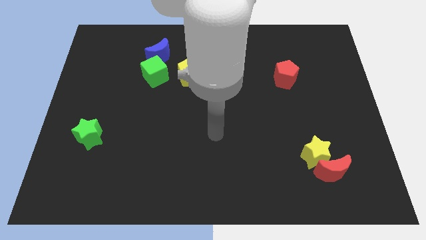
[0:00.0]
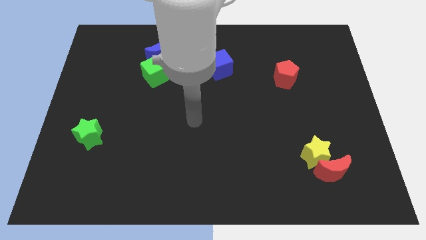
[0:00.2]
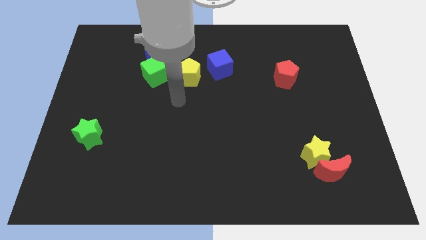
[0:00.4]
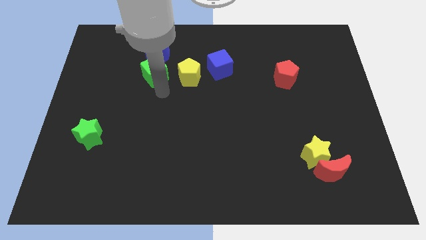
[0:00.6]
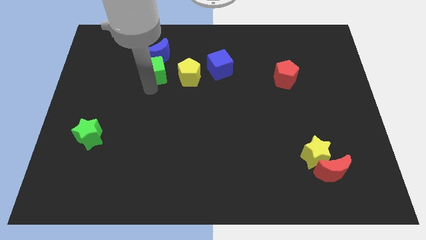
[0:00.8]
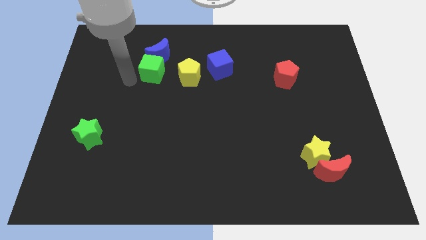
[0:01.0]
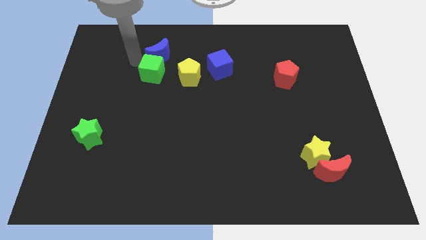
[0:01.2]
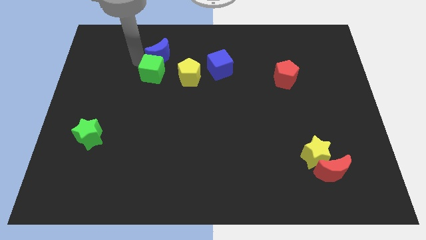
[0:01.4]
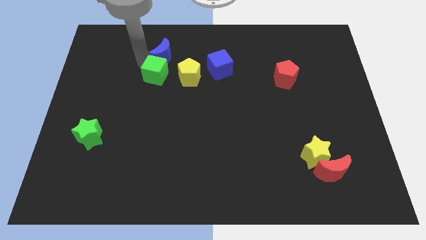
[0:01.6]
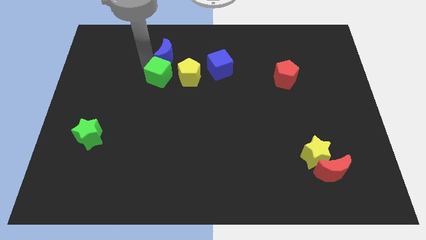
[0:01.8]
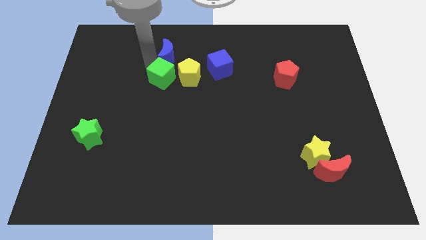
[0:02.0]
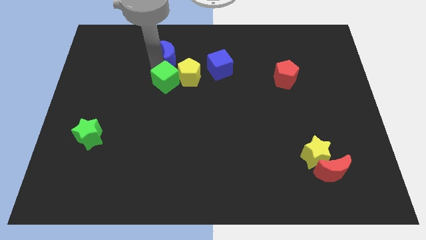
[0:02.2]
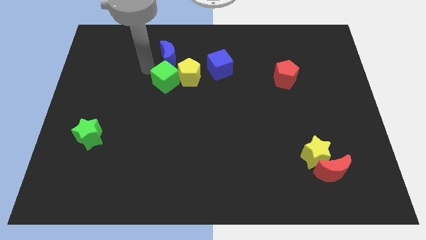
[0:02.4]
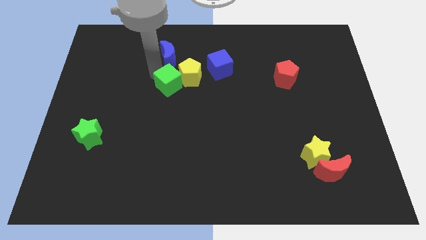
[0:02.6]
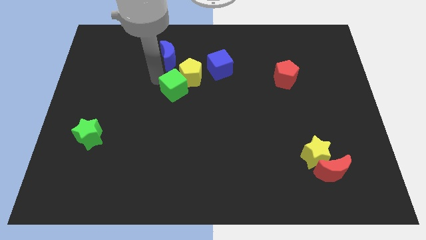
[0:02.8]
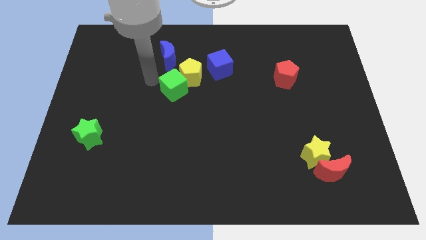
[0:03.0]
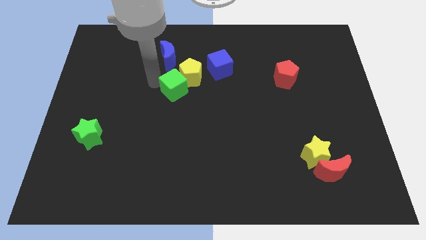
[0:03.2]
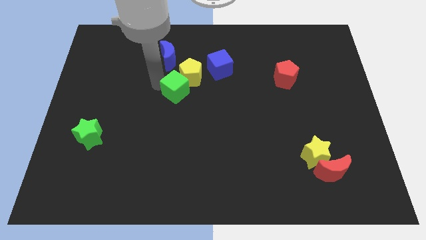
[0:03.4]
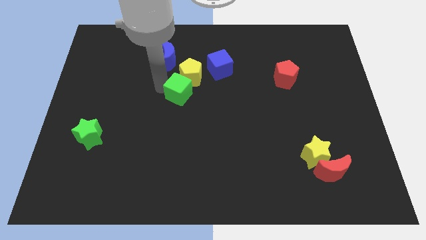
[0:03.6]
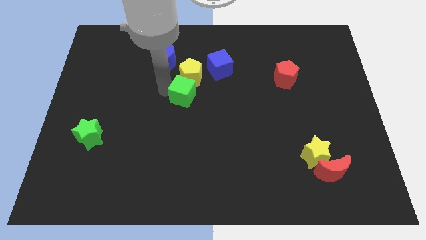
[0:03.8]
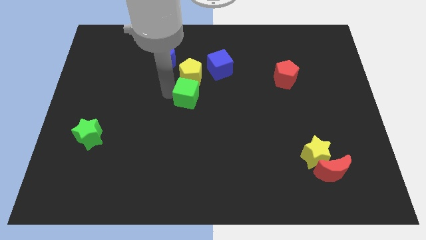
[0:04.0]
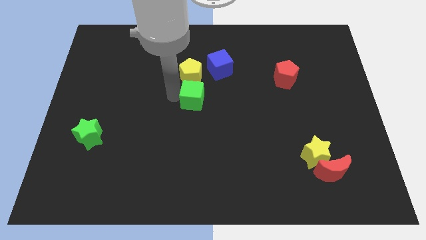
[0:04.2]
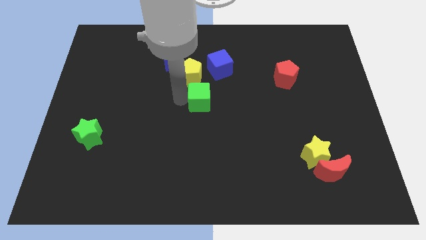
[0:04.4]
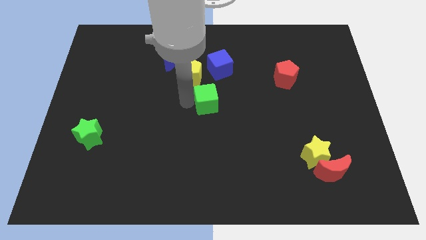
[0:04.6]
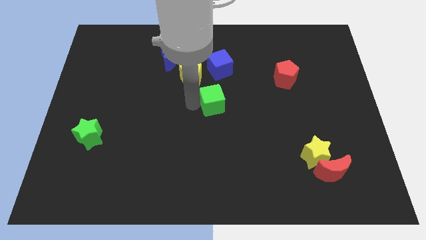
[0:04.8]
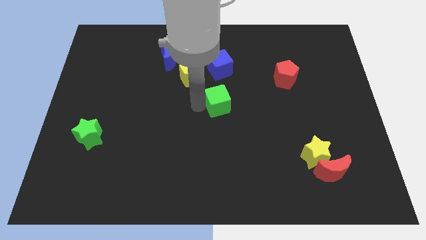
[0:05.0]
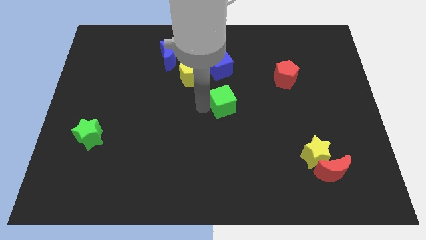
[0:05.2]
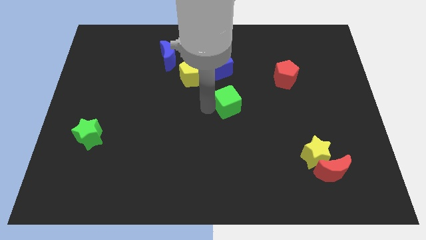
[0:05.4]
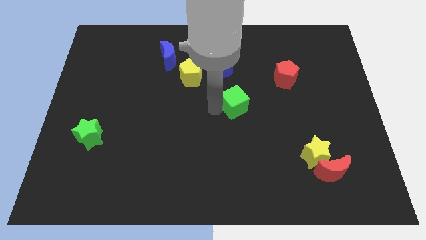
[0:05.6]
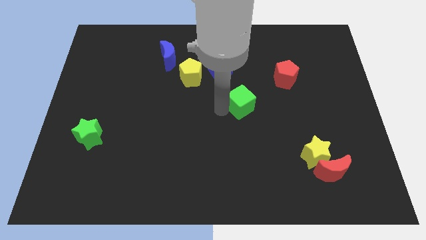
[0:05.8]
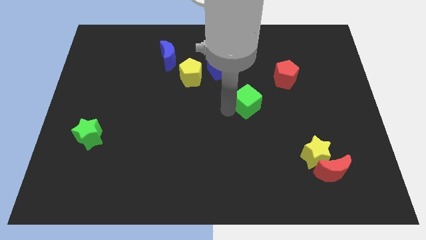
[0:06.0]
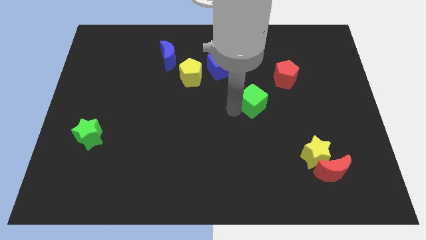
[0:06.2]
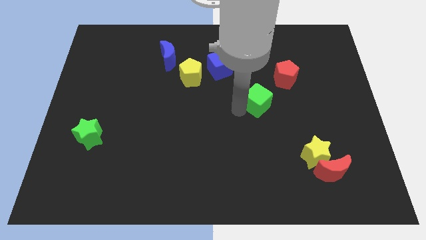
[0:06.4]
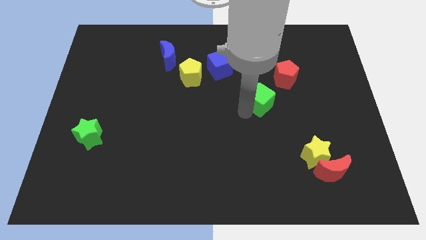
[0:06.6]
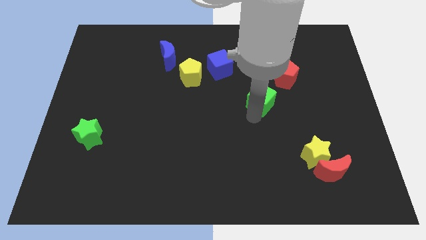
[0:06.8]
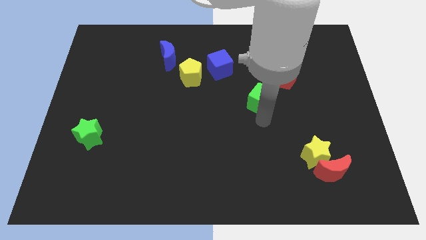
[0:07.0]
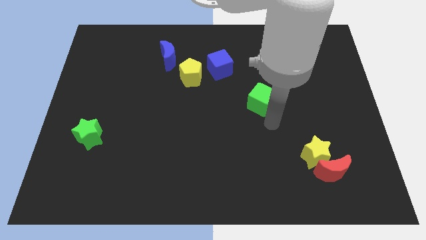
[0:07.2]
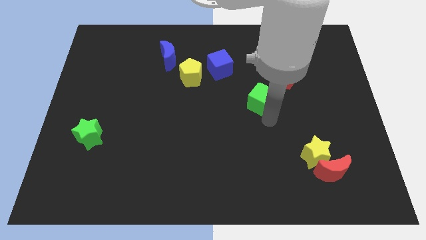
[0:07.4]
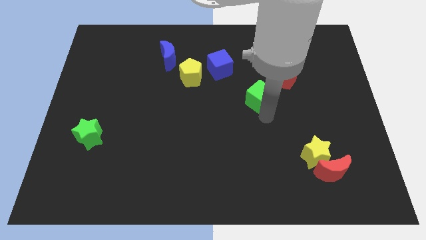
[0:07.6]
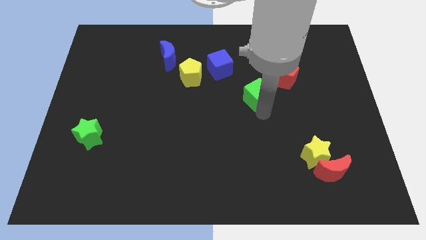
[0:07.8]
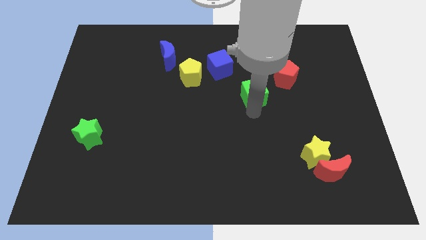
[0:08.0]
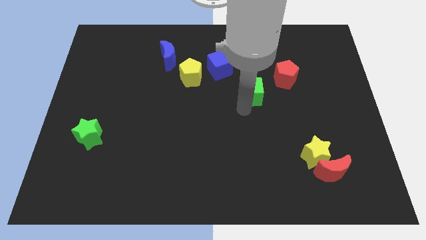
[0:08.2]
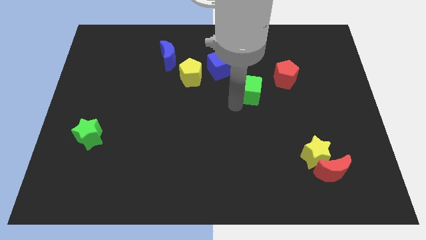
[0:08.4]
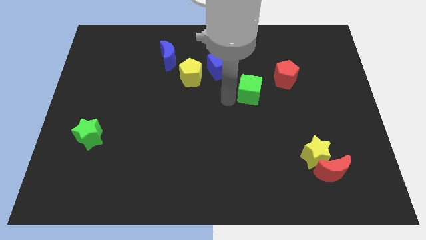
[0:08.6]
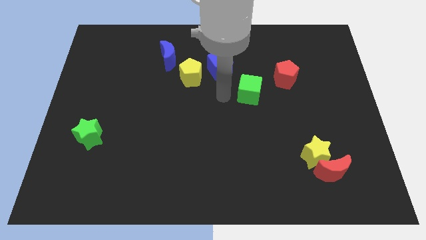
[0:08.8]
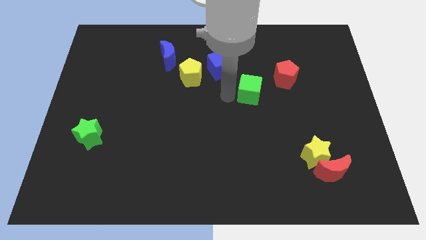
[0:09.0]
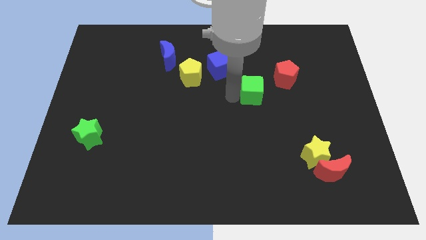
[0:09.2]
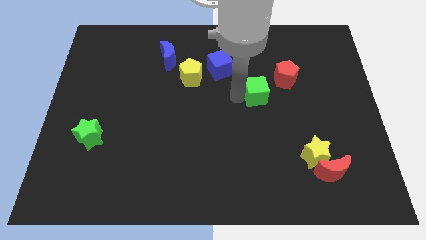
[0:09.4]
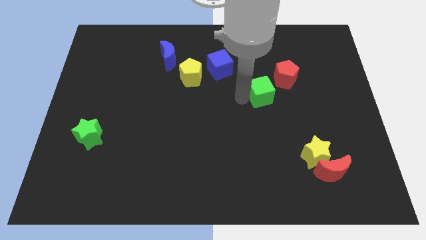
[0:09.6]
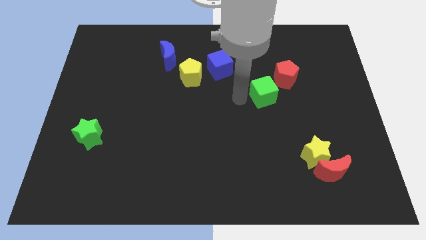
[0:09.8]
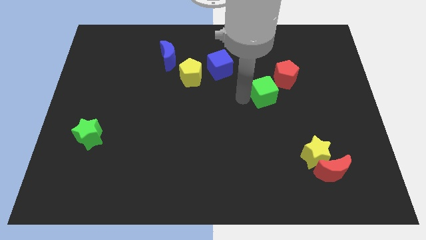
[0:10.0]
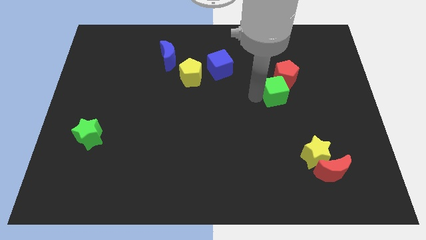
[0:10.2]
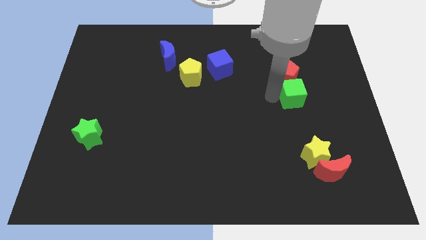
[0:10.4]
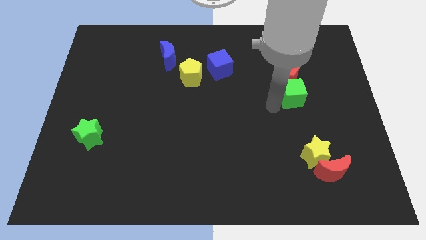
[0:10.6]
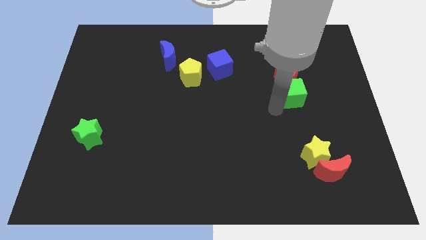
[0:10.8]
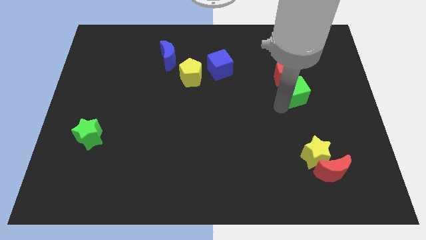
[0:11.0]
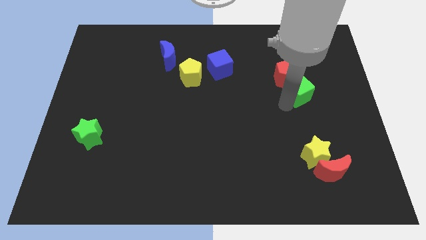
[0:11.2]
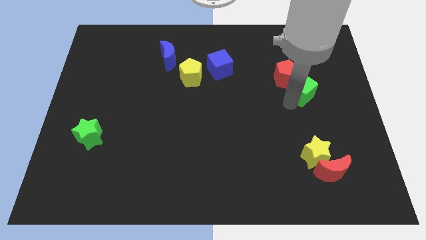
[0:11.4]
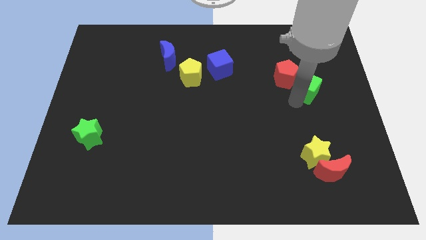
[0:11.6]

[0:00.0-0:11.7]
move the green cube right of the red pentagon

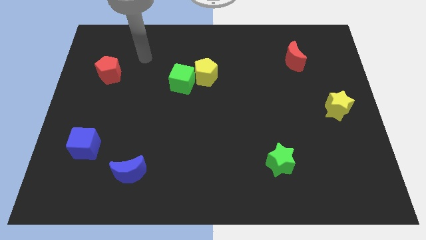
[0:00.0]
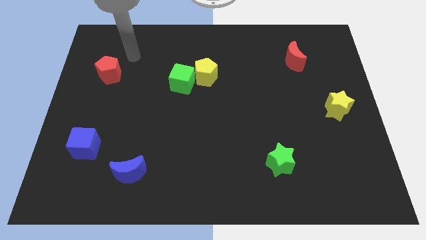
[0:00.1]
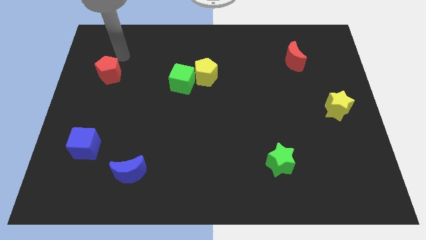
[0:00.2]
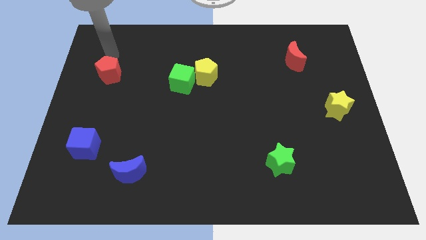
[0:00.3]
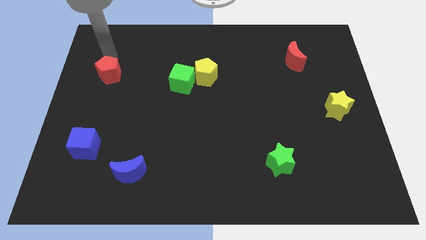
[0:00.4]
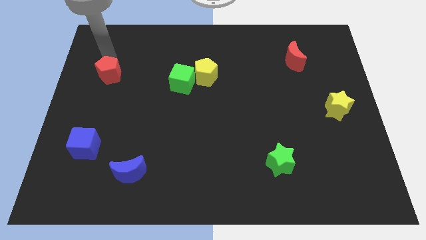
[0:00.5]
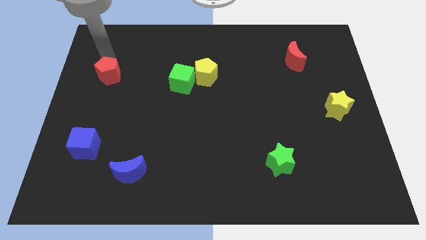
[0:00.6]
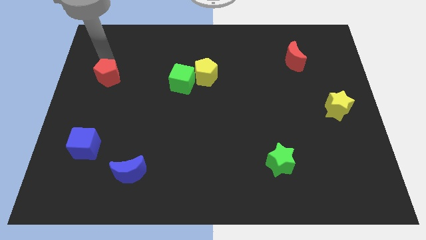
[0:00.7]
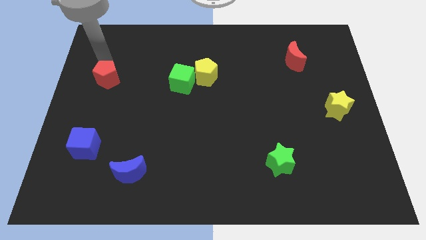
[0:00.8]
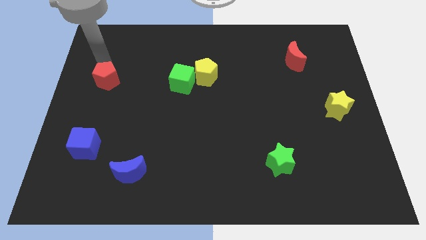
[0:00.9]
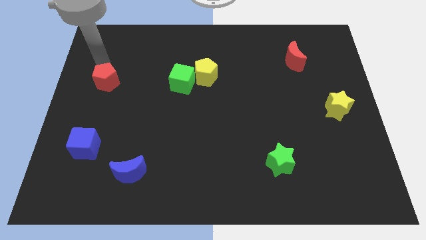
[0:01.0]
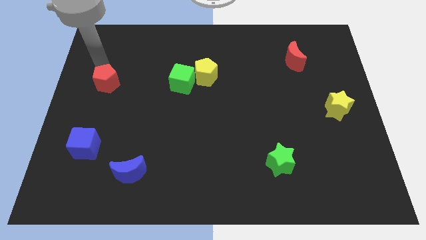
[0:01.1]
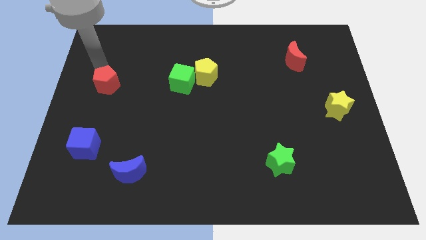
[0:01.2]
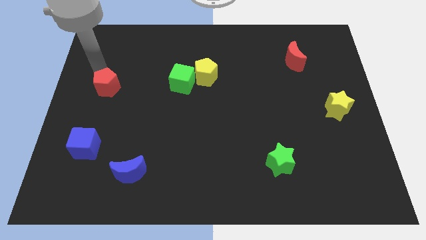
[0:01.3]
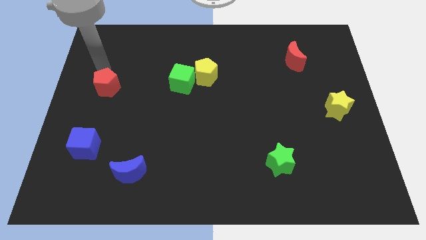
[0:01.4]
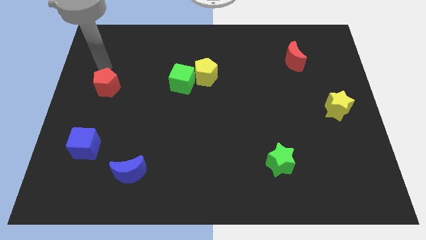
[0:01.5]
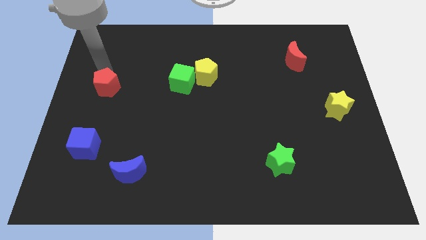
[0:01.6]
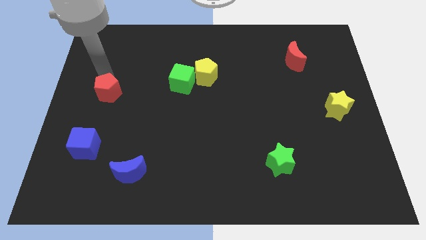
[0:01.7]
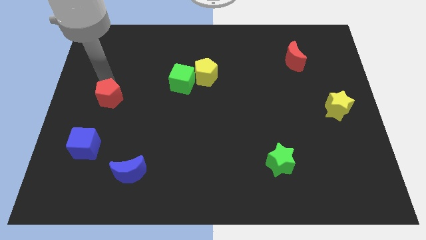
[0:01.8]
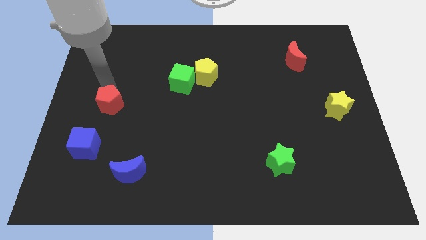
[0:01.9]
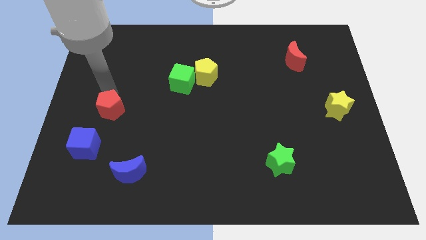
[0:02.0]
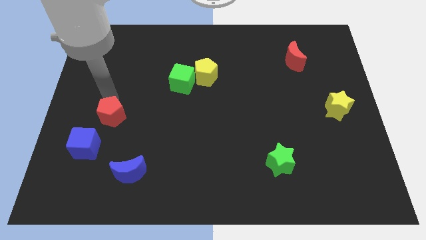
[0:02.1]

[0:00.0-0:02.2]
put the red pentagon to the top right of the blue cube
